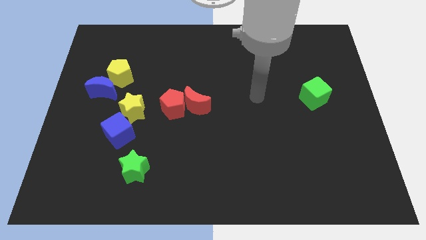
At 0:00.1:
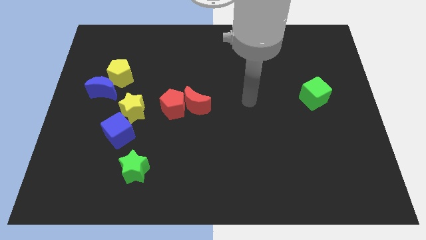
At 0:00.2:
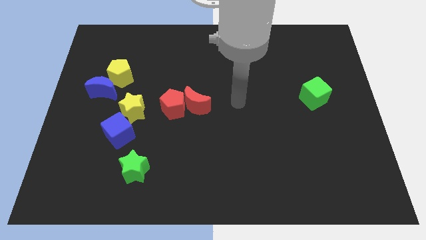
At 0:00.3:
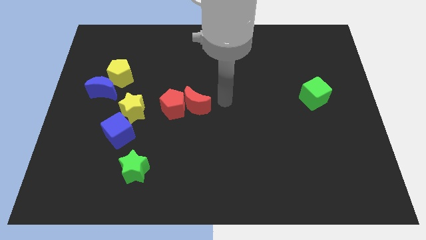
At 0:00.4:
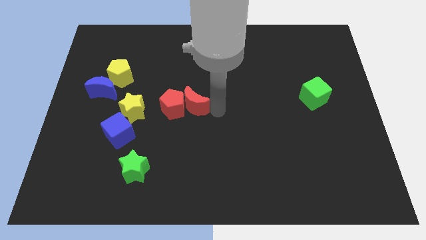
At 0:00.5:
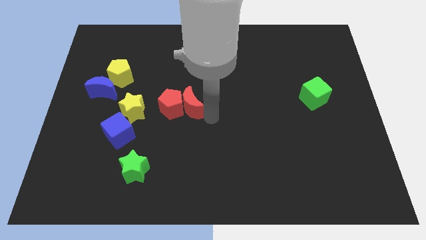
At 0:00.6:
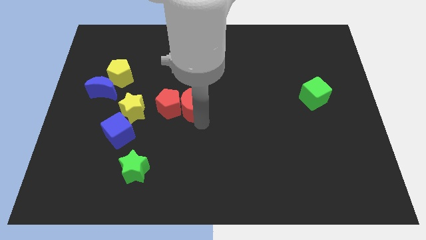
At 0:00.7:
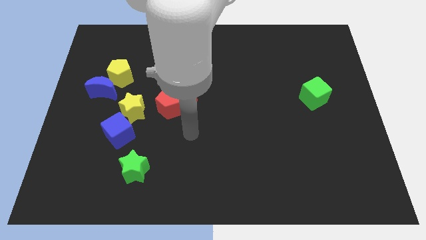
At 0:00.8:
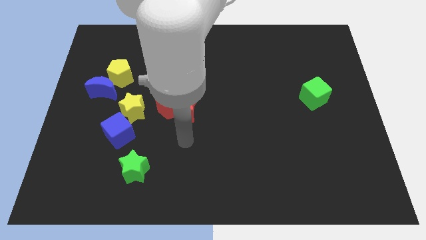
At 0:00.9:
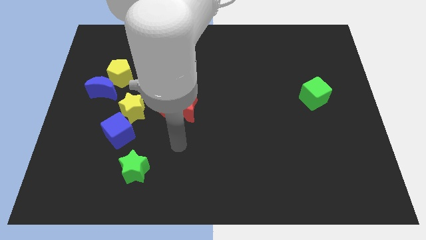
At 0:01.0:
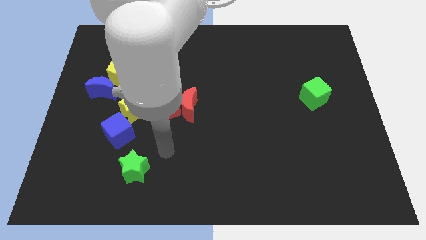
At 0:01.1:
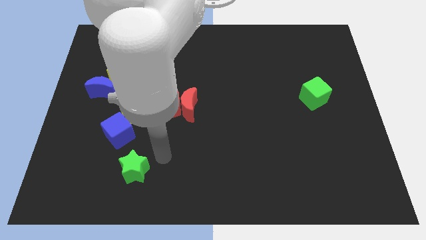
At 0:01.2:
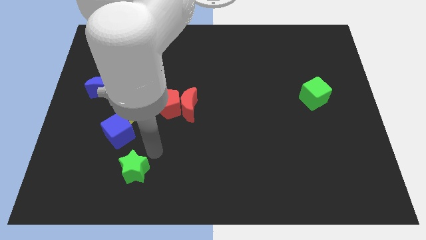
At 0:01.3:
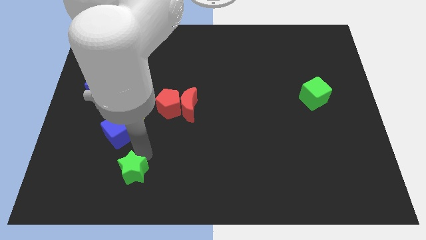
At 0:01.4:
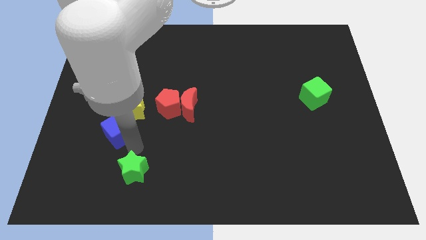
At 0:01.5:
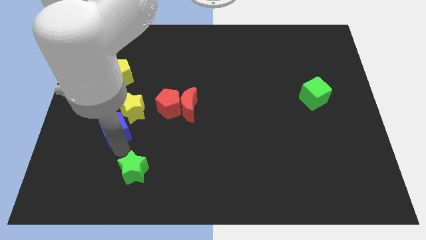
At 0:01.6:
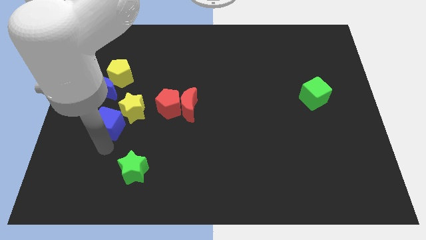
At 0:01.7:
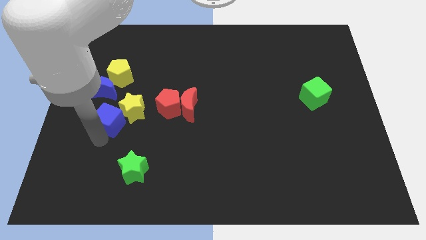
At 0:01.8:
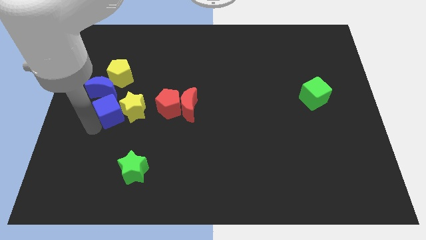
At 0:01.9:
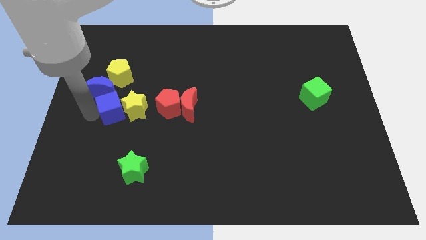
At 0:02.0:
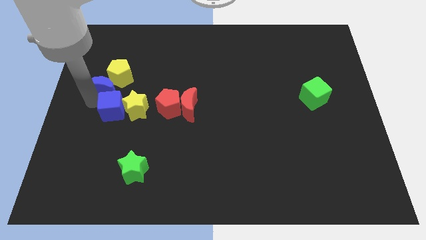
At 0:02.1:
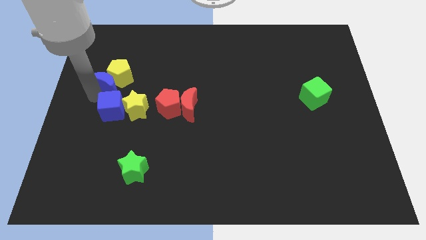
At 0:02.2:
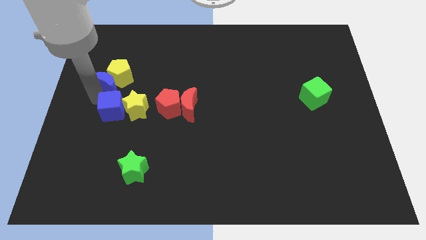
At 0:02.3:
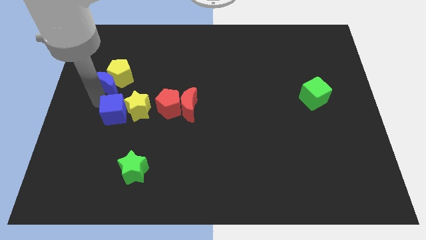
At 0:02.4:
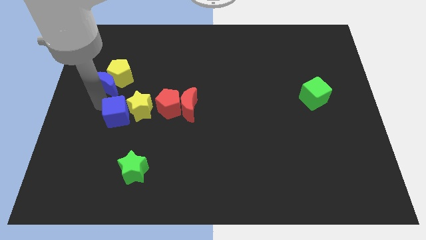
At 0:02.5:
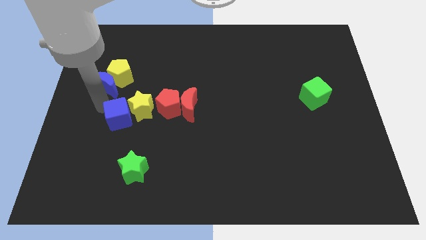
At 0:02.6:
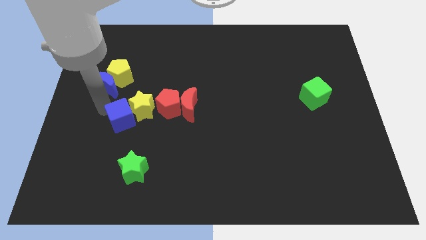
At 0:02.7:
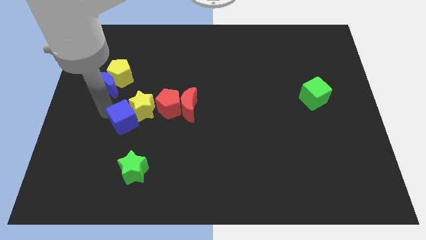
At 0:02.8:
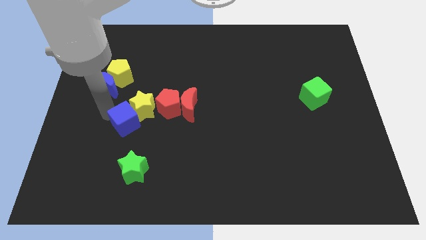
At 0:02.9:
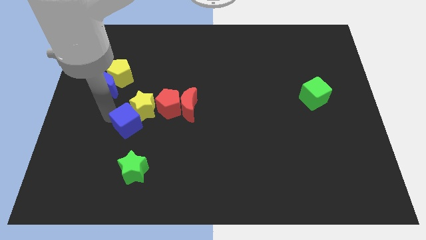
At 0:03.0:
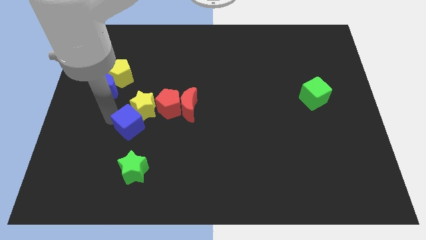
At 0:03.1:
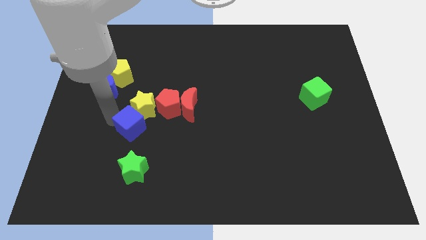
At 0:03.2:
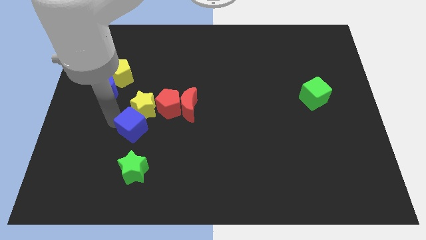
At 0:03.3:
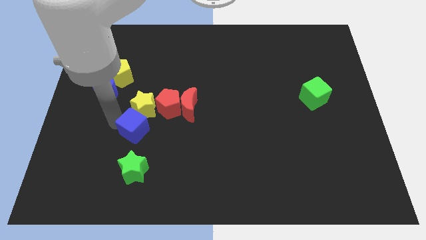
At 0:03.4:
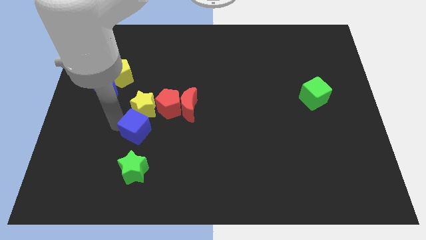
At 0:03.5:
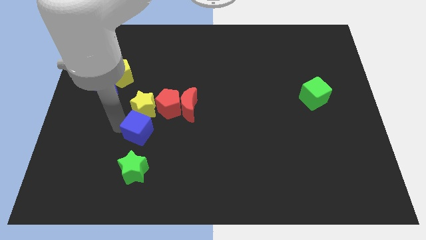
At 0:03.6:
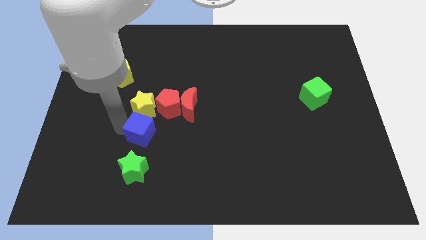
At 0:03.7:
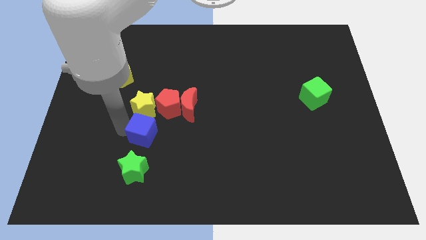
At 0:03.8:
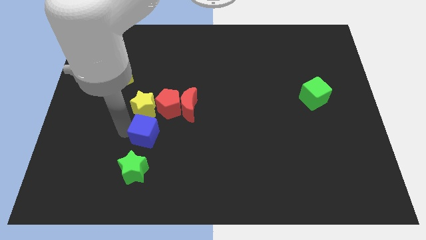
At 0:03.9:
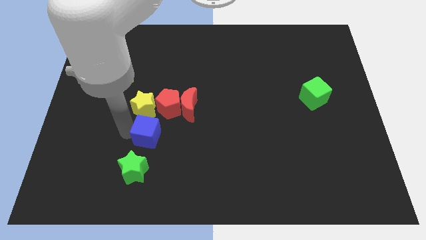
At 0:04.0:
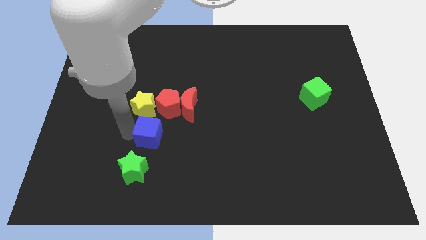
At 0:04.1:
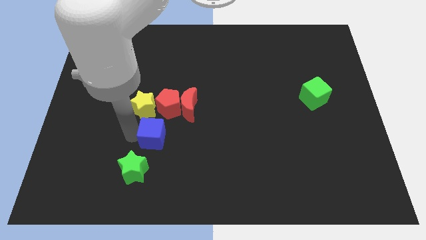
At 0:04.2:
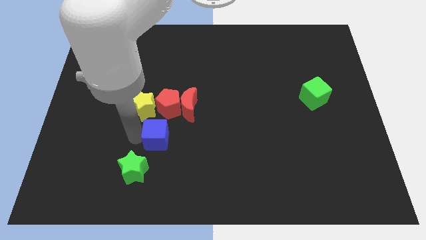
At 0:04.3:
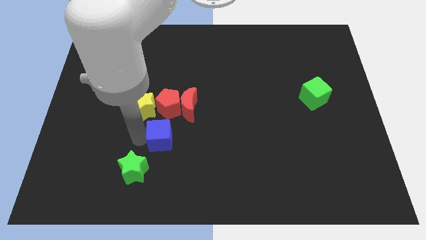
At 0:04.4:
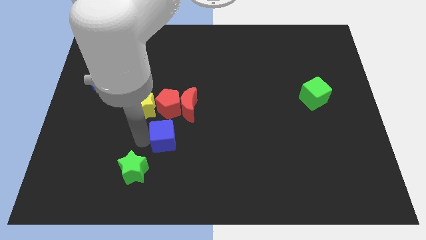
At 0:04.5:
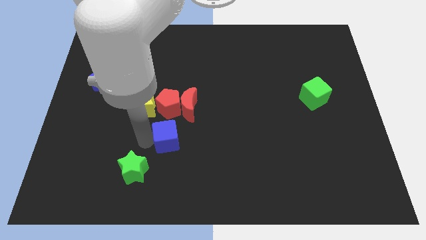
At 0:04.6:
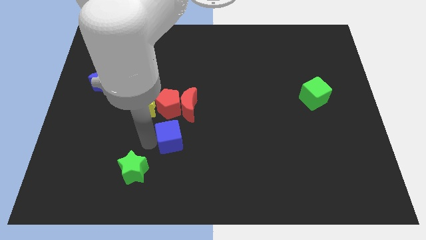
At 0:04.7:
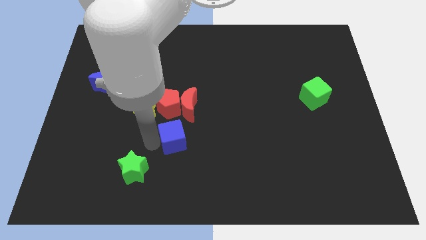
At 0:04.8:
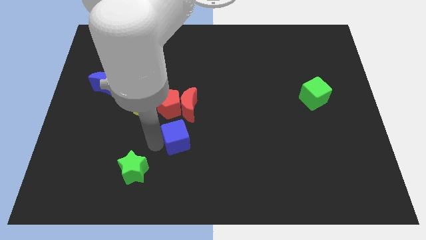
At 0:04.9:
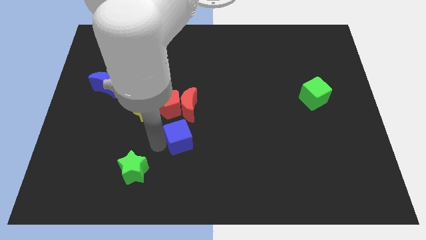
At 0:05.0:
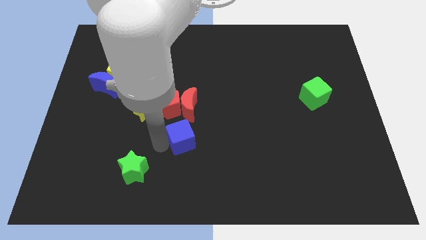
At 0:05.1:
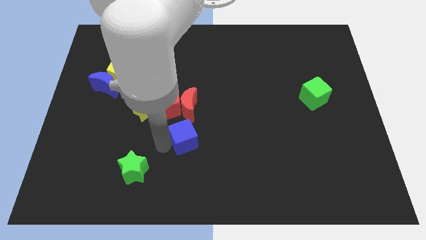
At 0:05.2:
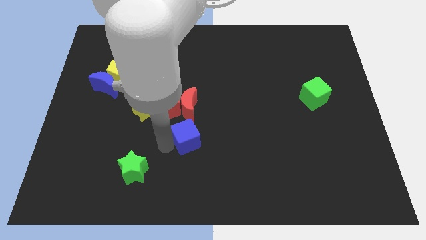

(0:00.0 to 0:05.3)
slide the blue cube to the middle

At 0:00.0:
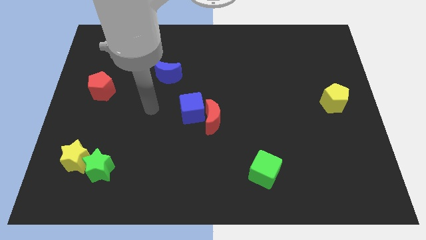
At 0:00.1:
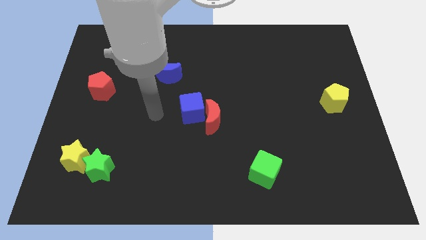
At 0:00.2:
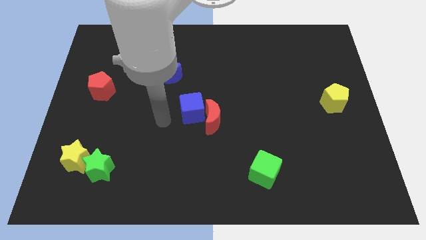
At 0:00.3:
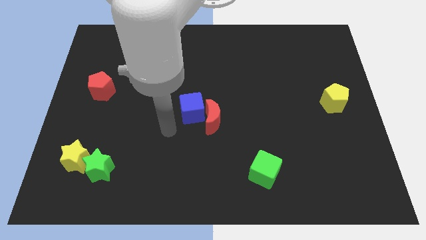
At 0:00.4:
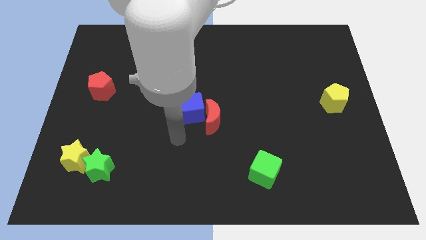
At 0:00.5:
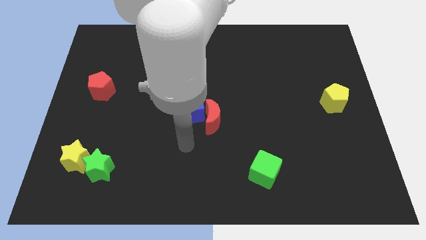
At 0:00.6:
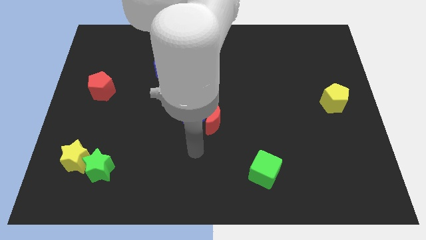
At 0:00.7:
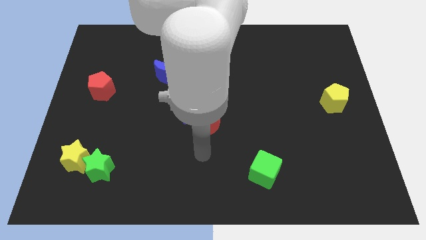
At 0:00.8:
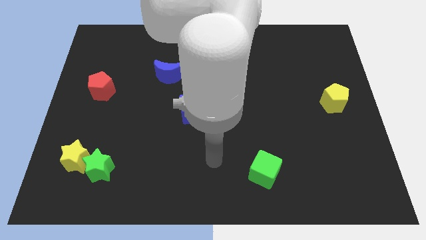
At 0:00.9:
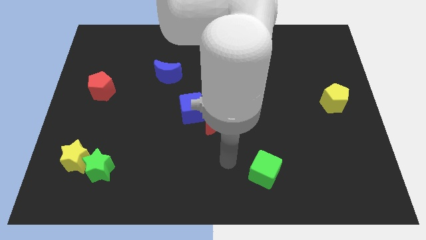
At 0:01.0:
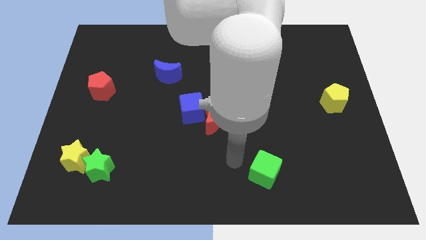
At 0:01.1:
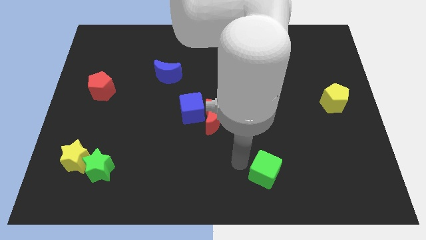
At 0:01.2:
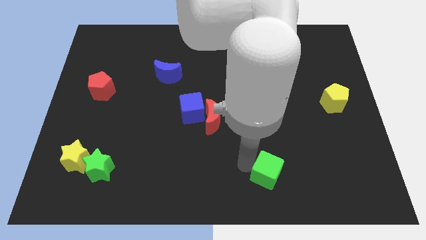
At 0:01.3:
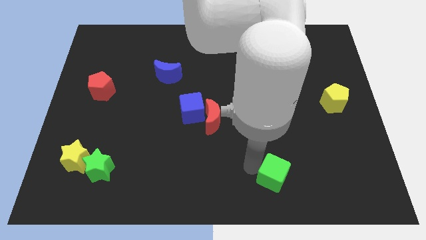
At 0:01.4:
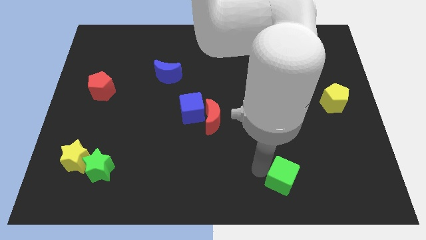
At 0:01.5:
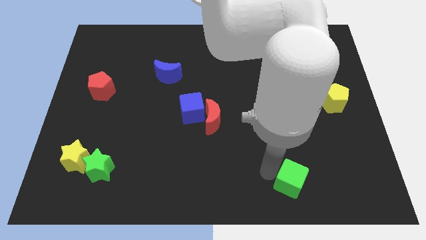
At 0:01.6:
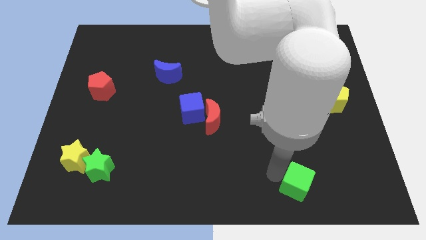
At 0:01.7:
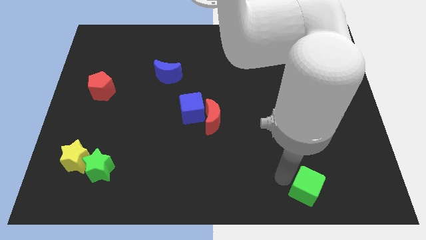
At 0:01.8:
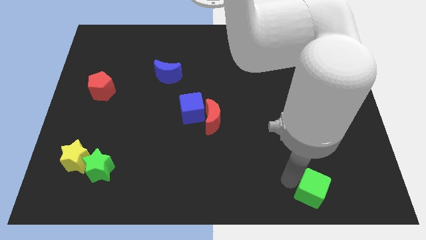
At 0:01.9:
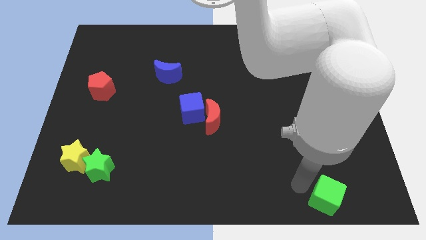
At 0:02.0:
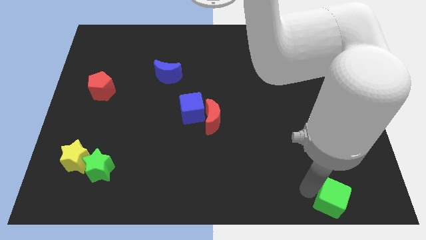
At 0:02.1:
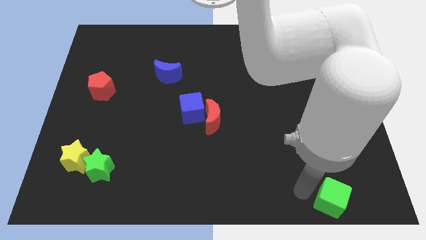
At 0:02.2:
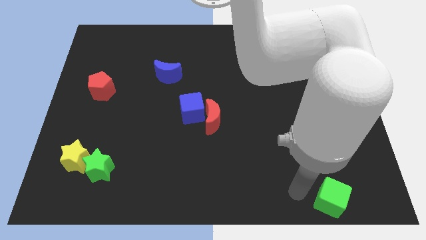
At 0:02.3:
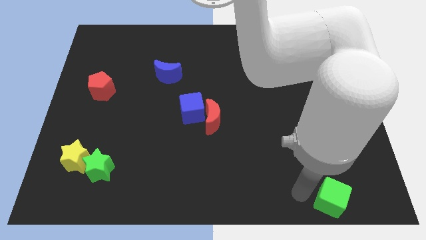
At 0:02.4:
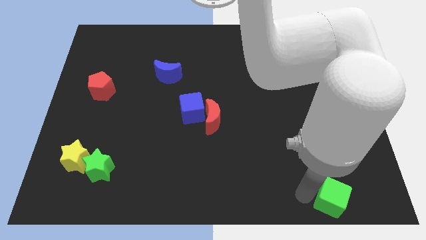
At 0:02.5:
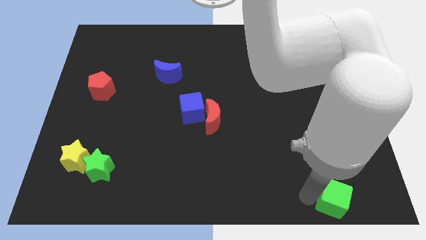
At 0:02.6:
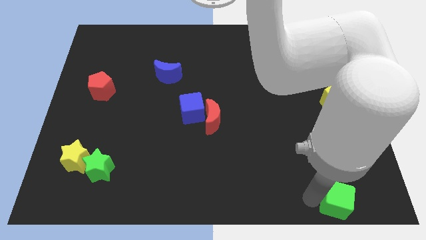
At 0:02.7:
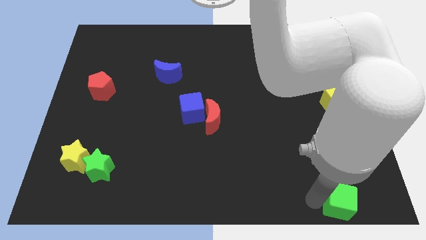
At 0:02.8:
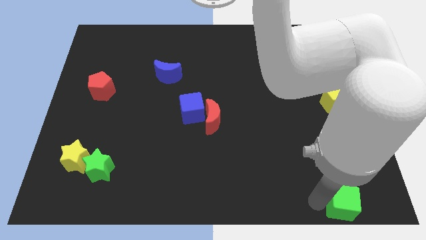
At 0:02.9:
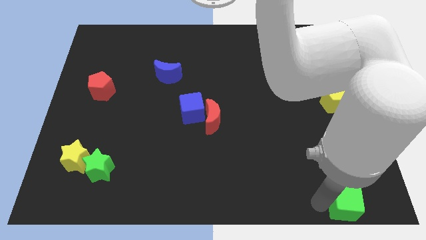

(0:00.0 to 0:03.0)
put the green cube to the bottom right
